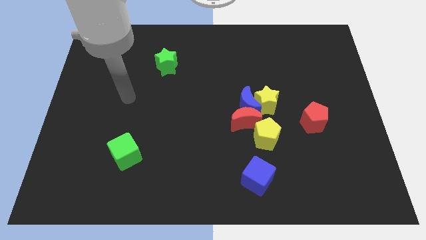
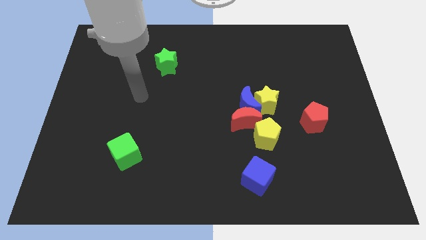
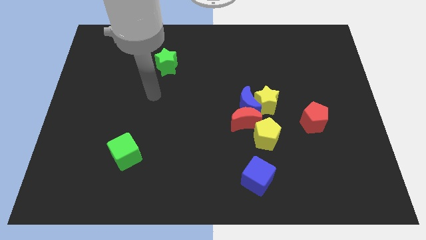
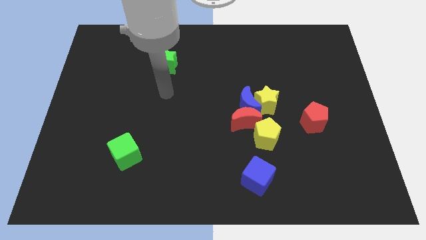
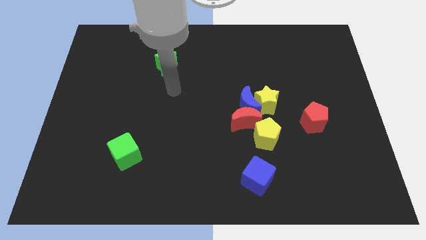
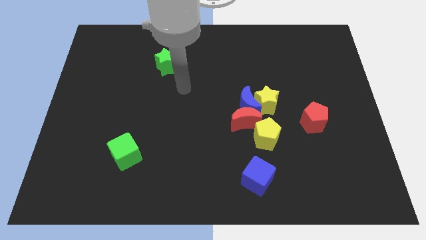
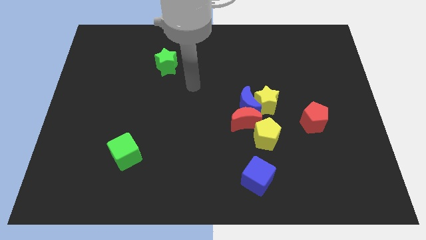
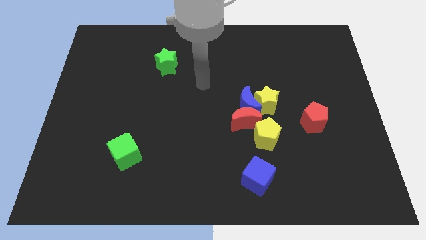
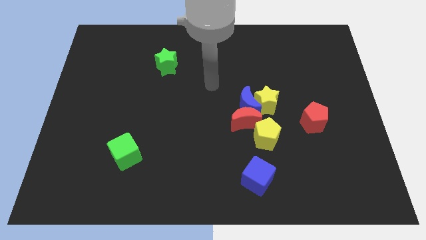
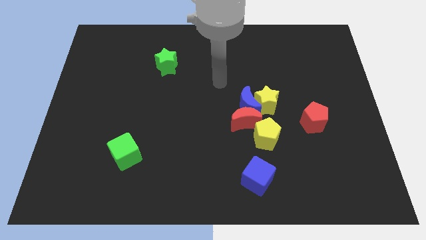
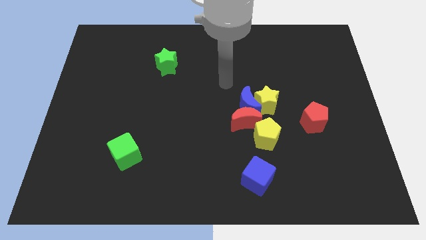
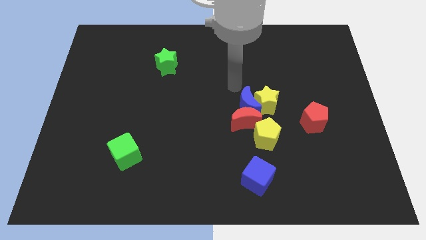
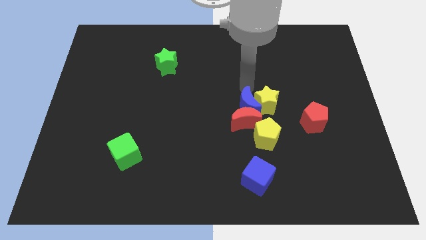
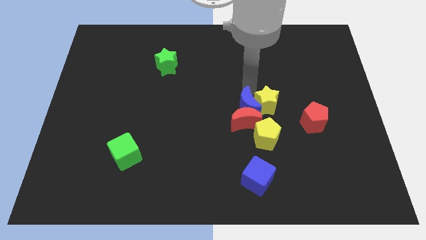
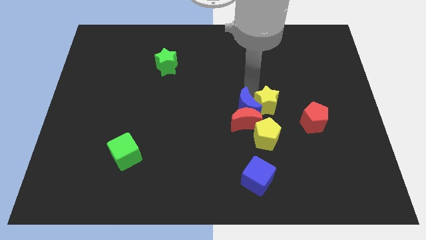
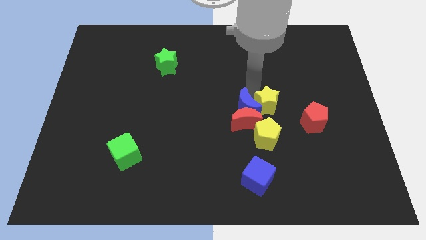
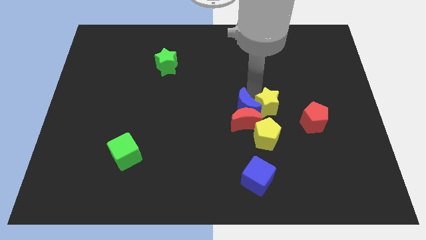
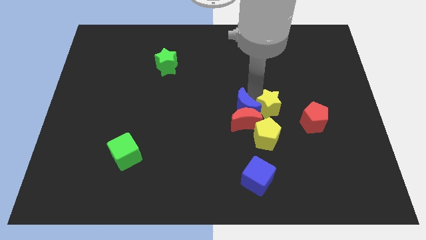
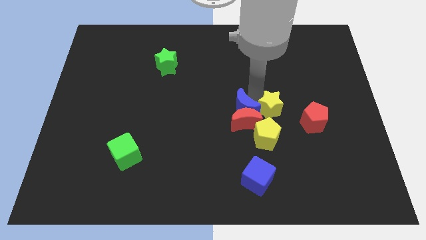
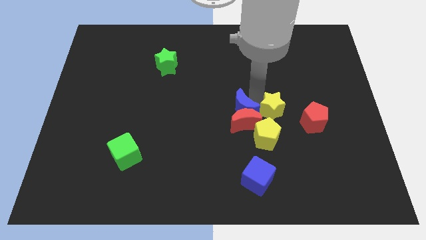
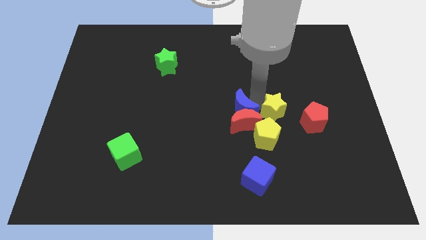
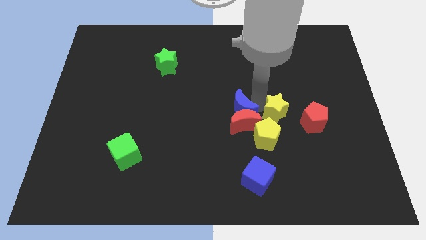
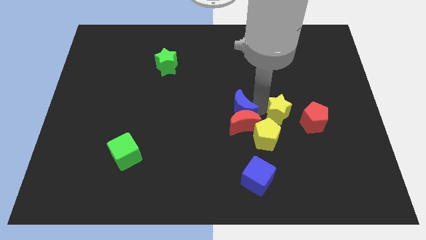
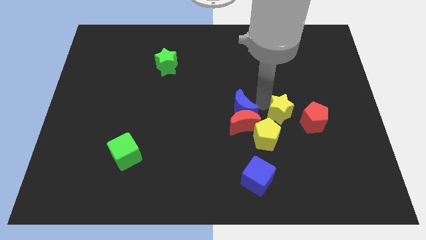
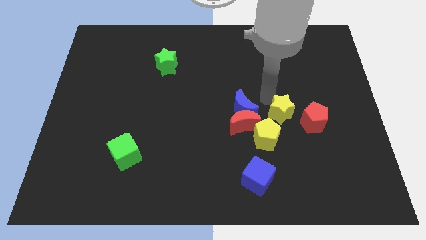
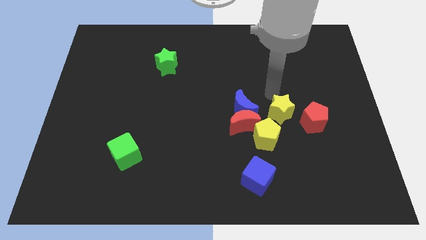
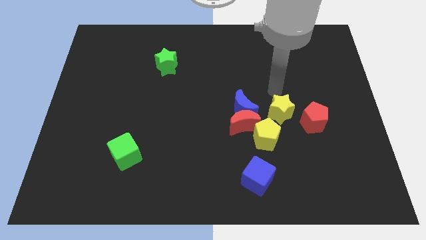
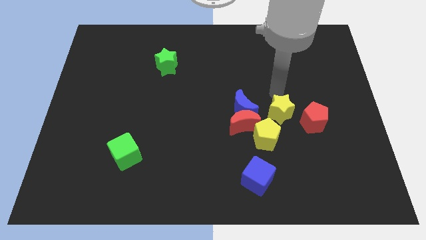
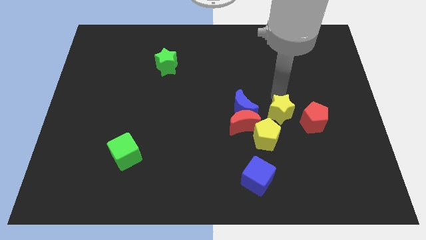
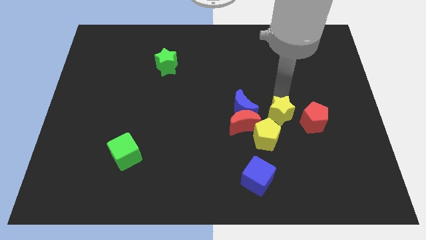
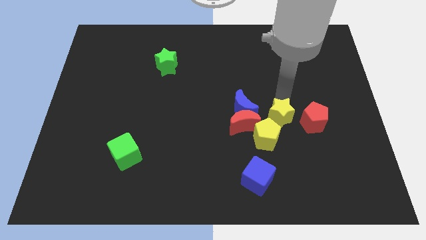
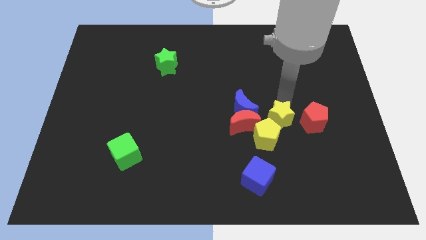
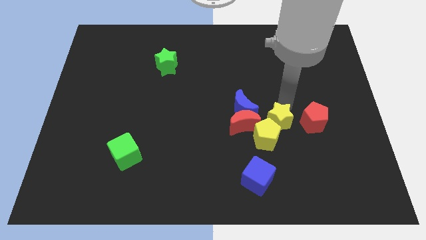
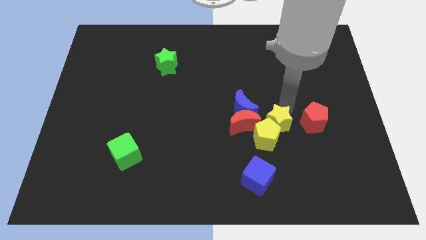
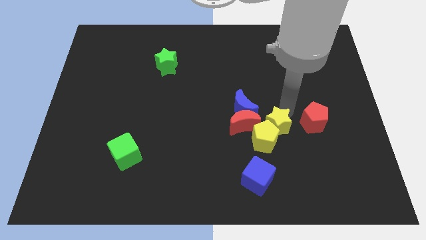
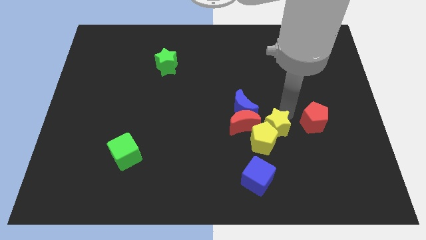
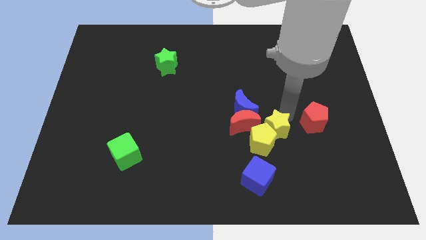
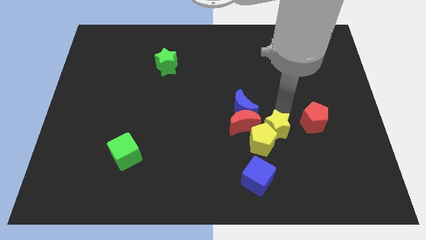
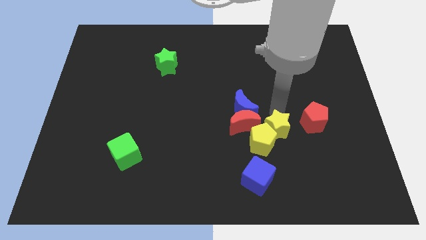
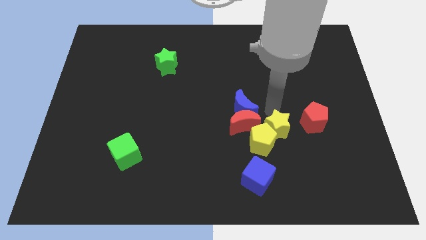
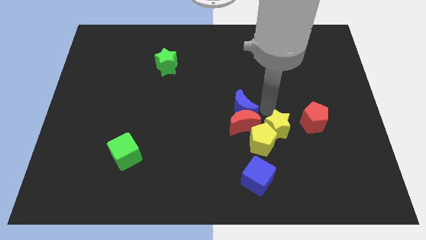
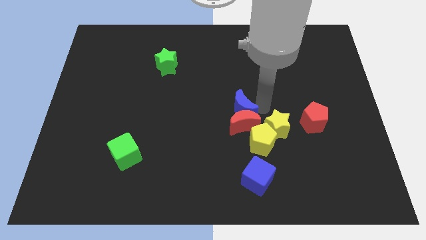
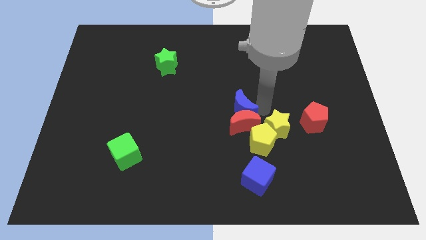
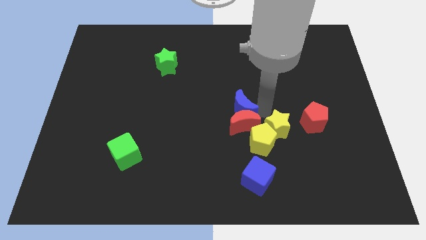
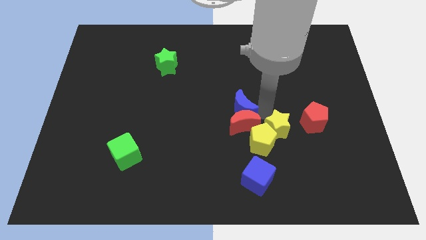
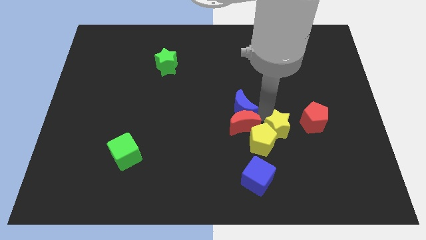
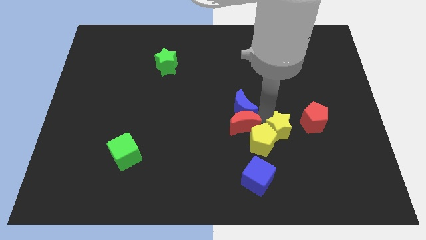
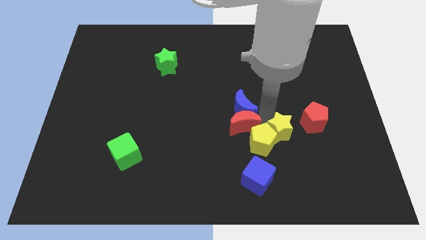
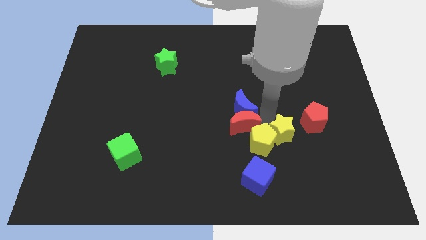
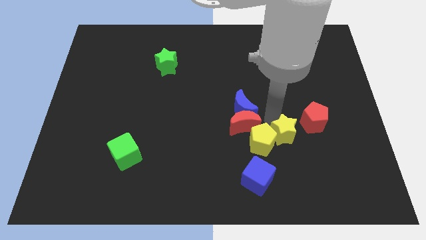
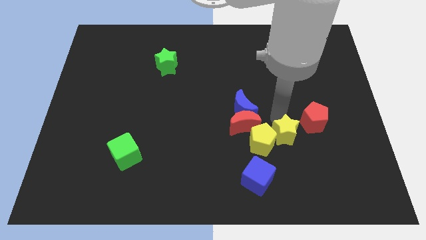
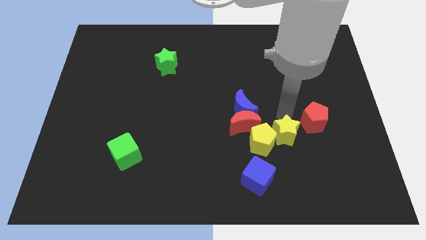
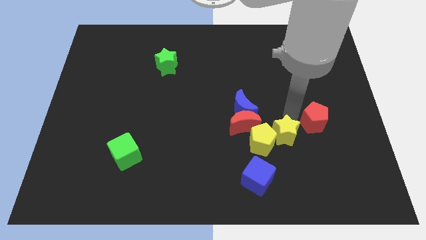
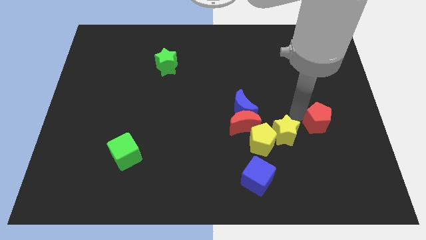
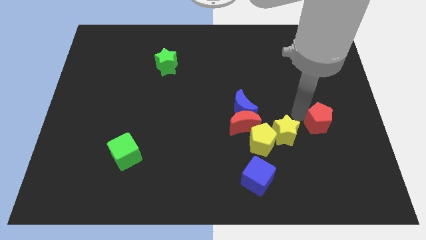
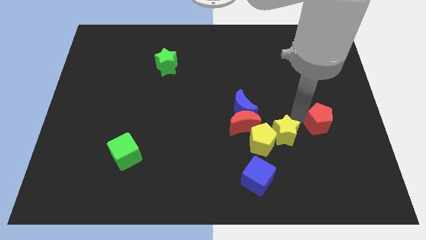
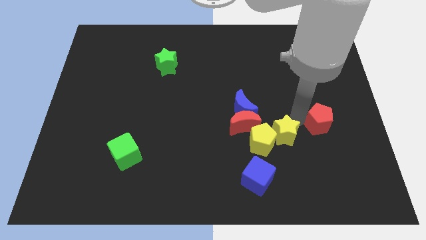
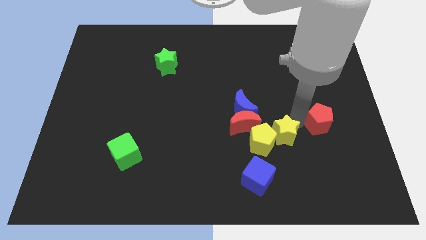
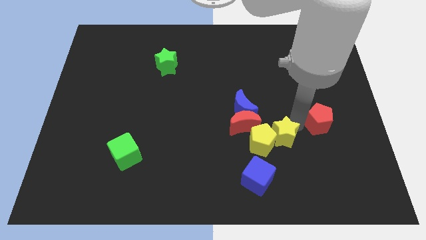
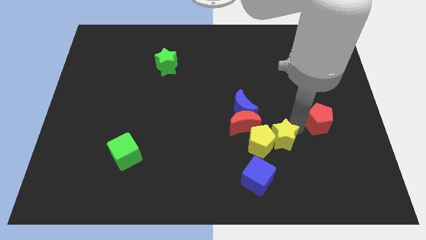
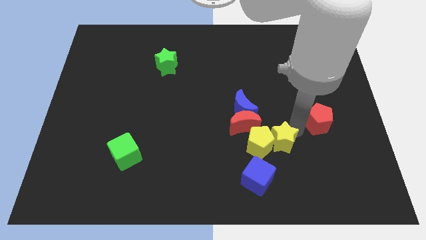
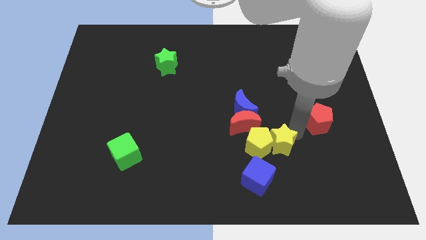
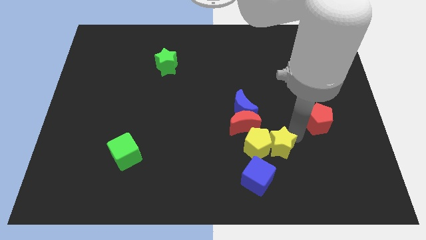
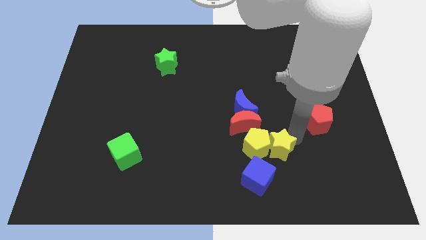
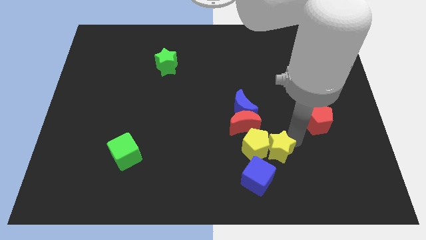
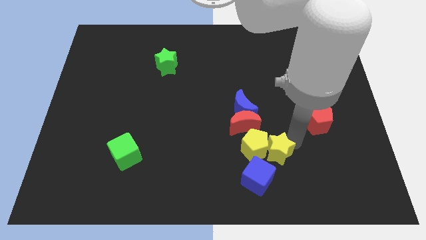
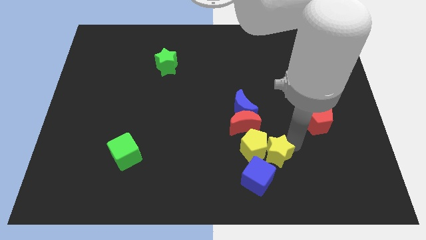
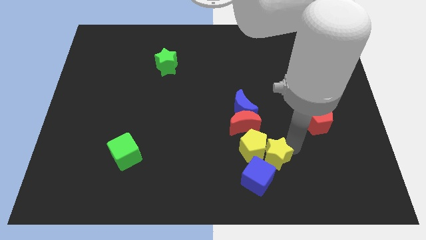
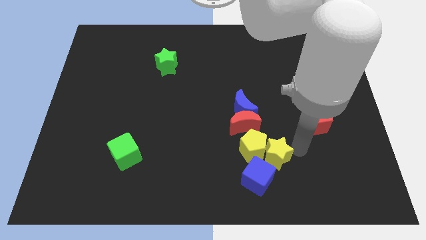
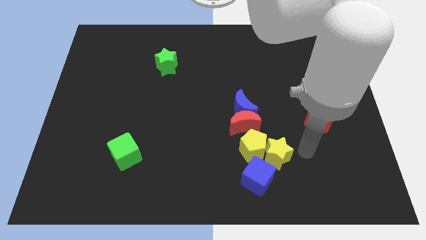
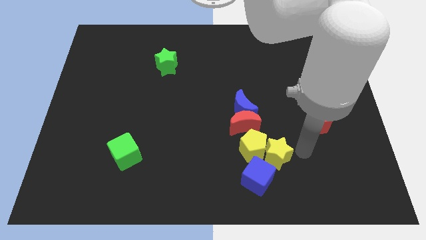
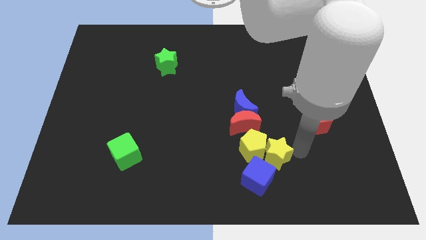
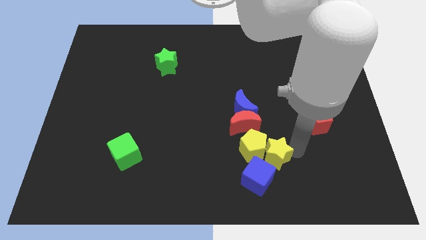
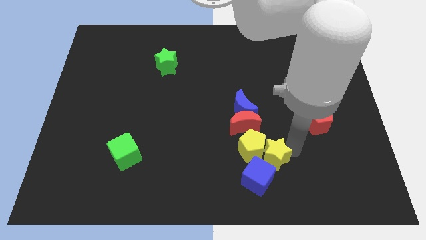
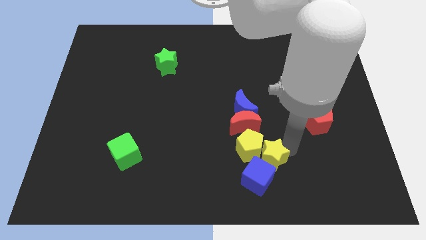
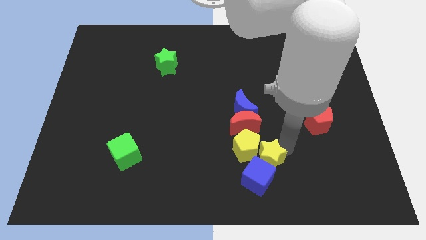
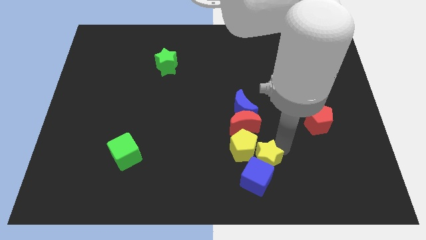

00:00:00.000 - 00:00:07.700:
slide the yellow star a little down and to the left diagonally

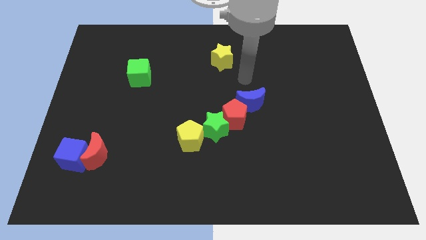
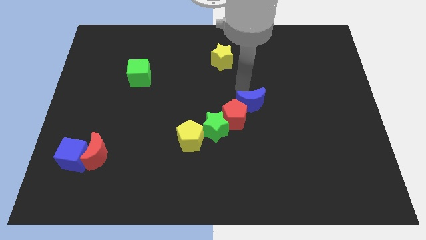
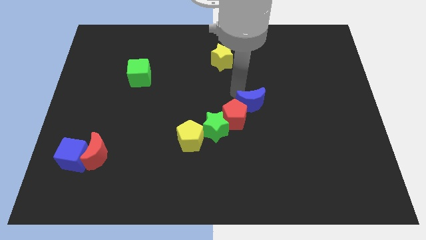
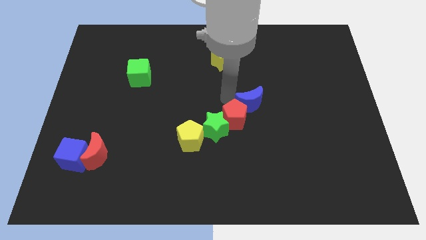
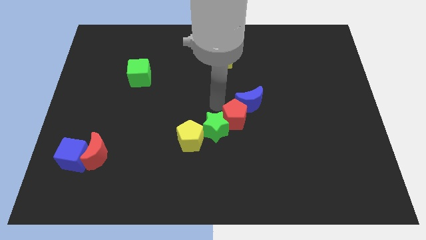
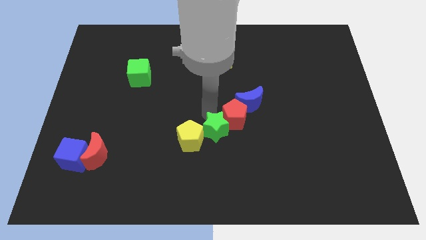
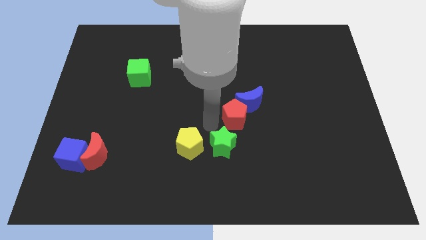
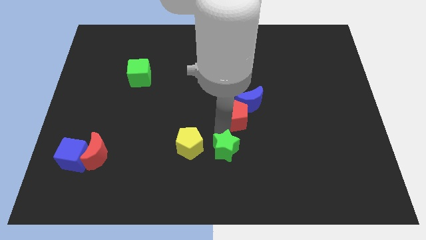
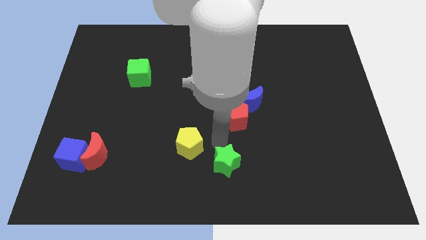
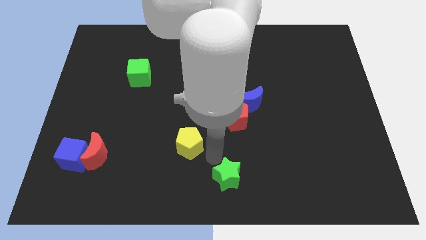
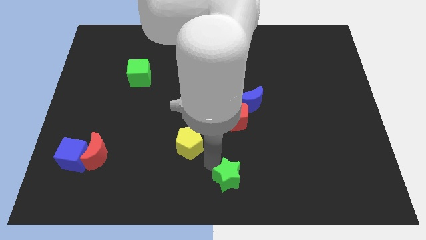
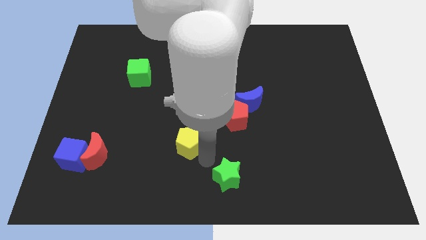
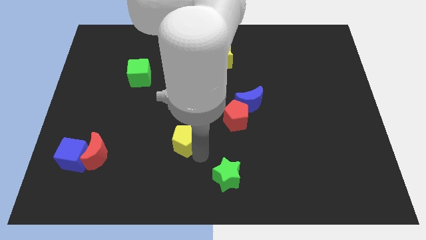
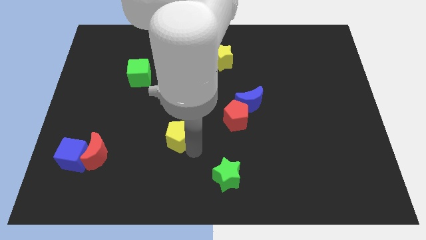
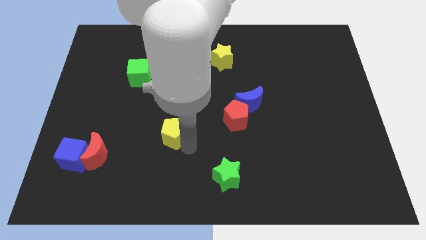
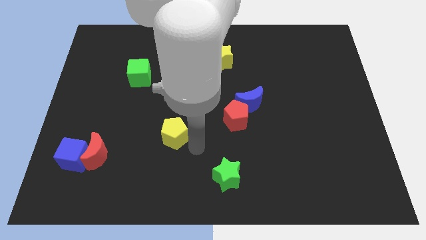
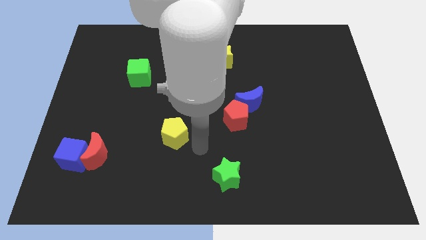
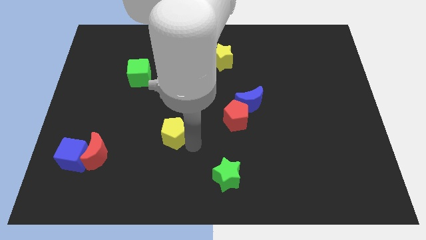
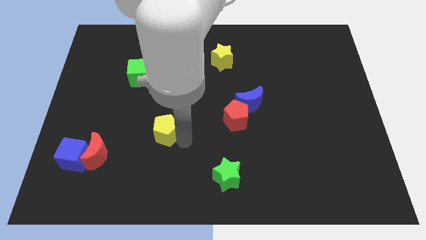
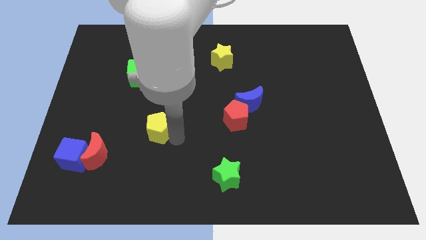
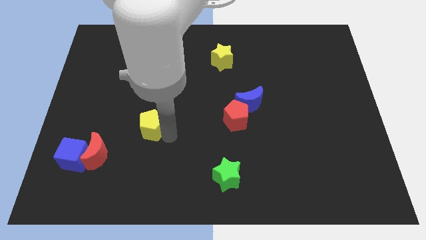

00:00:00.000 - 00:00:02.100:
slightly push the yellow pentagon diagonally upwards and left
